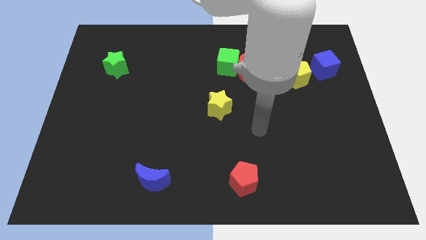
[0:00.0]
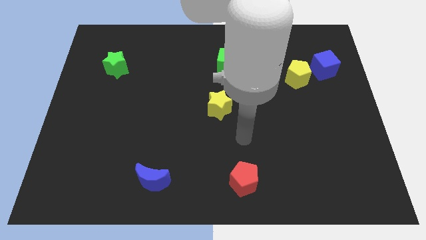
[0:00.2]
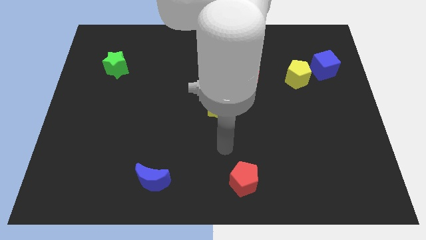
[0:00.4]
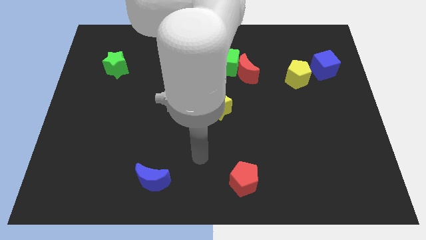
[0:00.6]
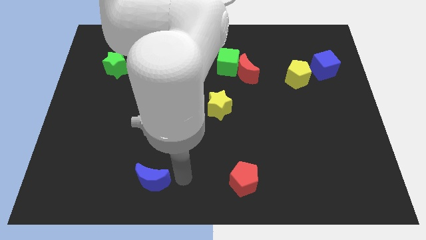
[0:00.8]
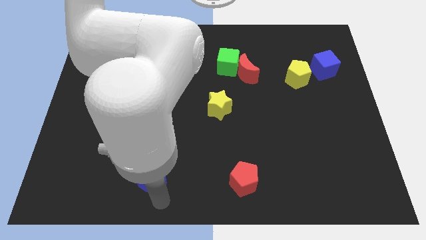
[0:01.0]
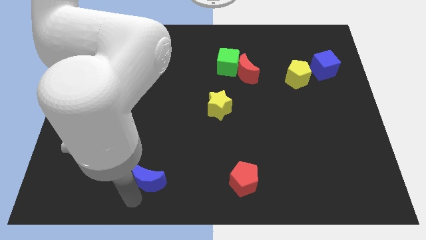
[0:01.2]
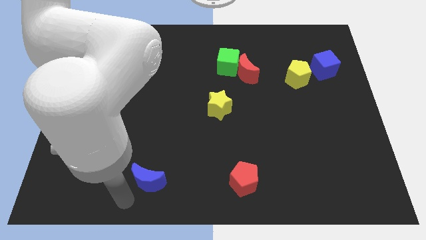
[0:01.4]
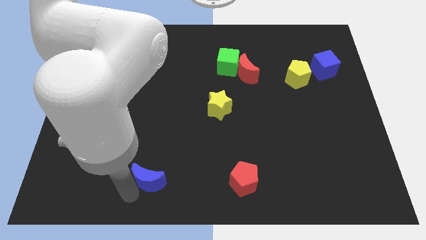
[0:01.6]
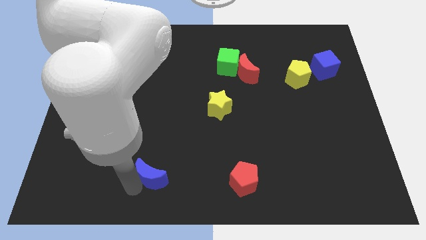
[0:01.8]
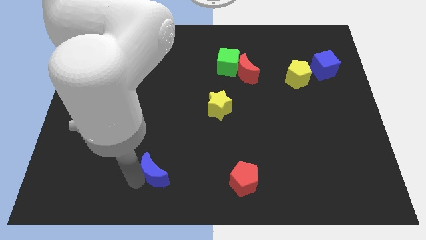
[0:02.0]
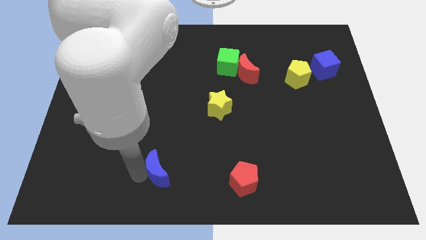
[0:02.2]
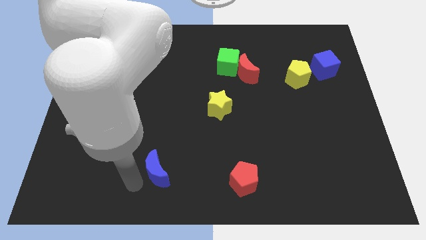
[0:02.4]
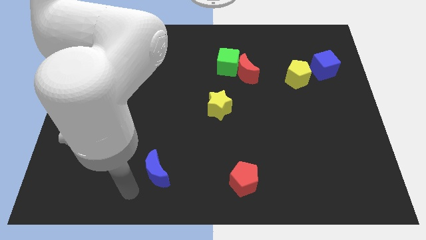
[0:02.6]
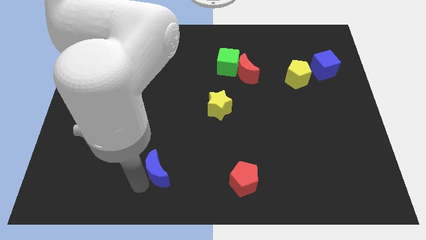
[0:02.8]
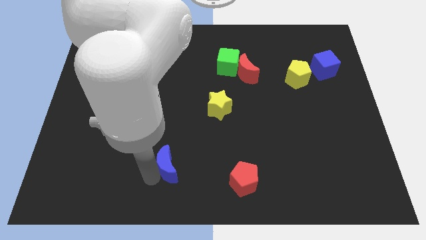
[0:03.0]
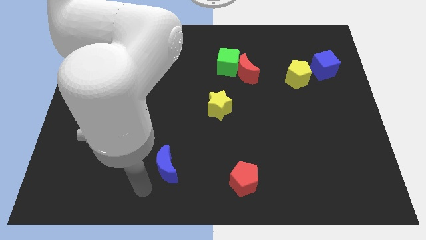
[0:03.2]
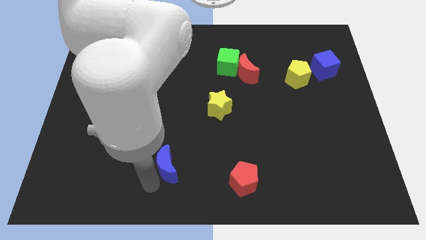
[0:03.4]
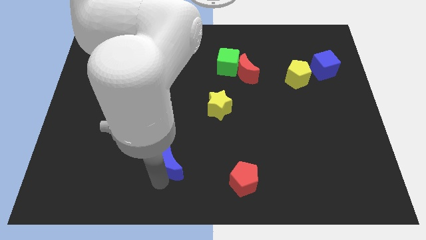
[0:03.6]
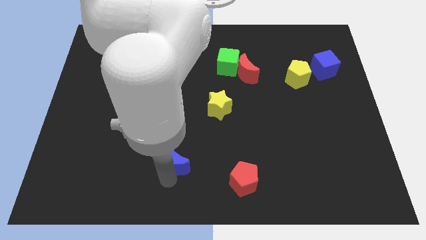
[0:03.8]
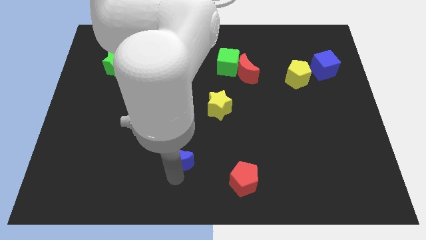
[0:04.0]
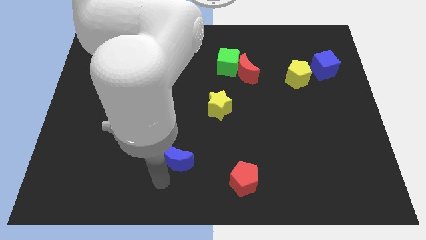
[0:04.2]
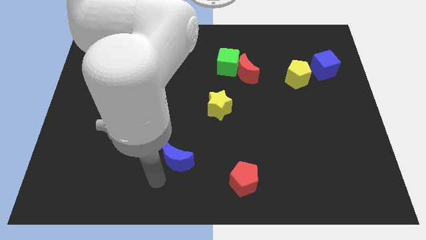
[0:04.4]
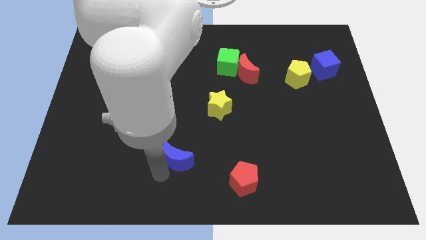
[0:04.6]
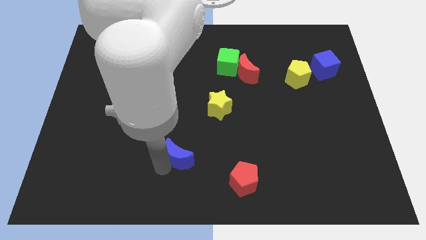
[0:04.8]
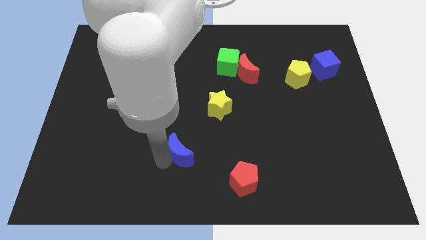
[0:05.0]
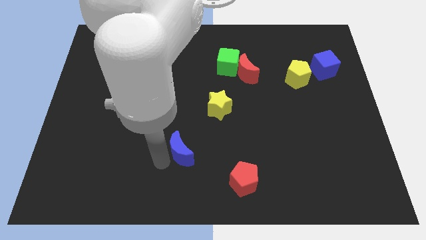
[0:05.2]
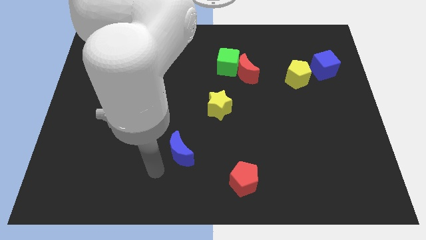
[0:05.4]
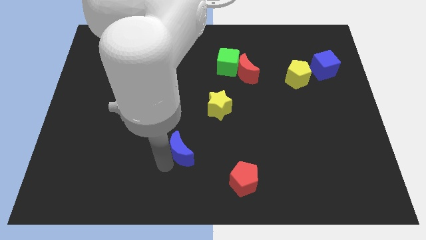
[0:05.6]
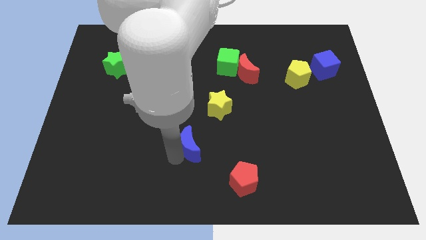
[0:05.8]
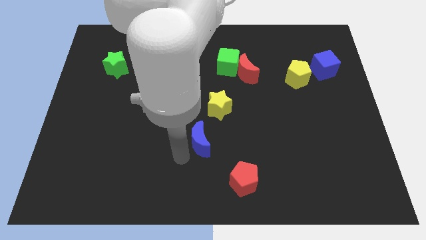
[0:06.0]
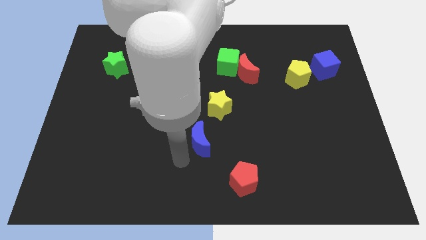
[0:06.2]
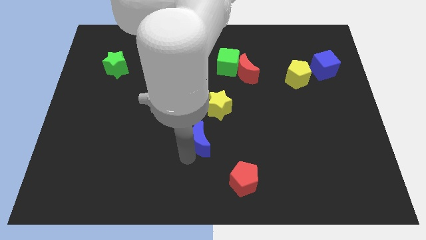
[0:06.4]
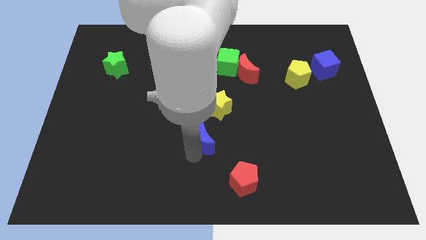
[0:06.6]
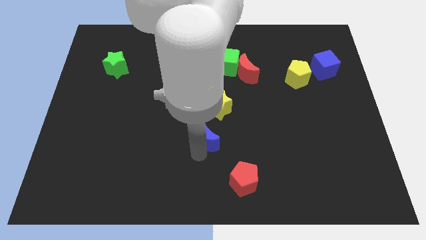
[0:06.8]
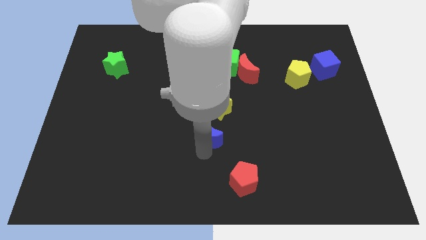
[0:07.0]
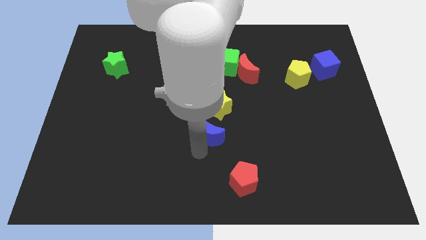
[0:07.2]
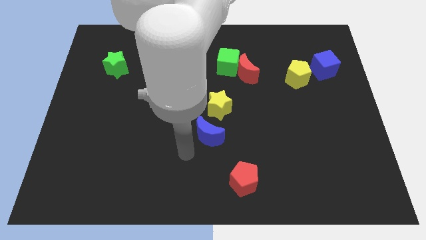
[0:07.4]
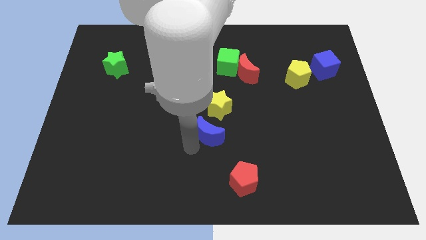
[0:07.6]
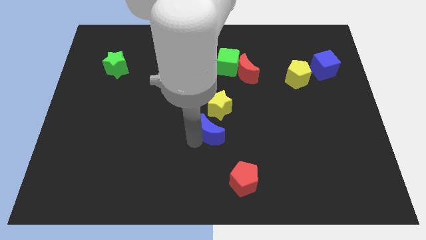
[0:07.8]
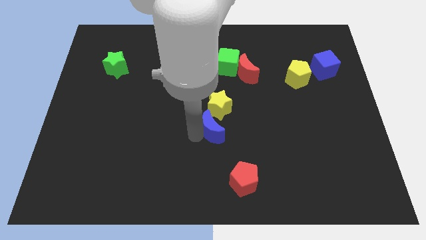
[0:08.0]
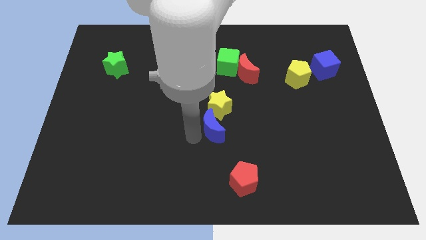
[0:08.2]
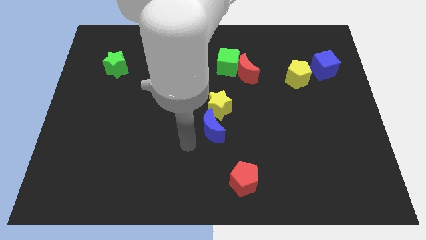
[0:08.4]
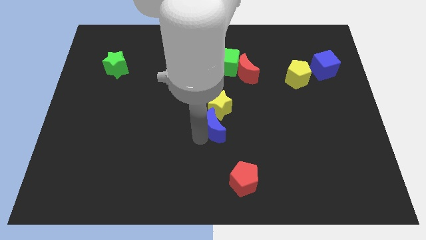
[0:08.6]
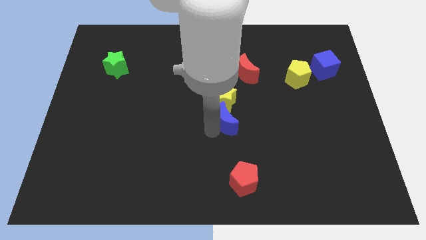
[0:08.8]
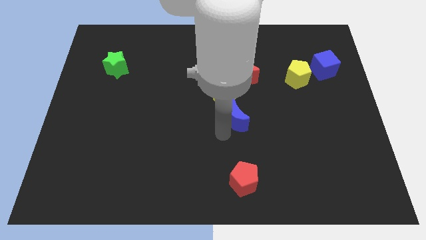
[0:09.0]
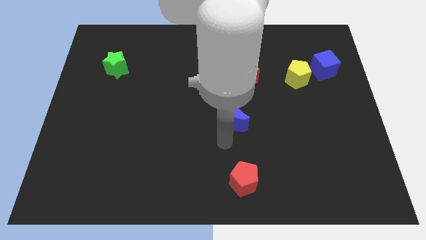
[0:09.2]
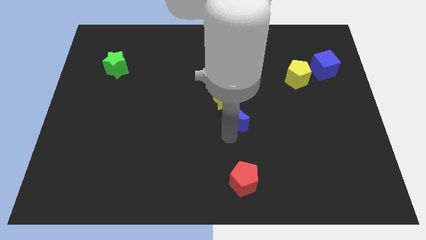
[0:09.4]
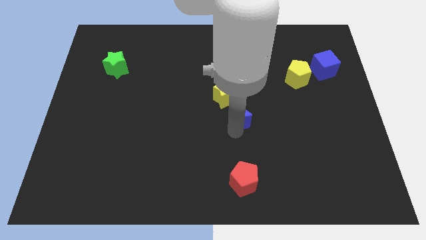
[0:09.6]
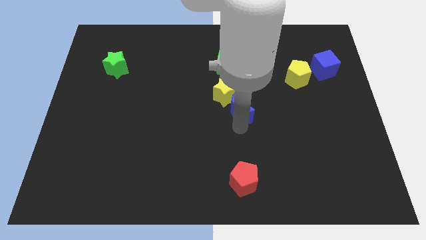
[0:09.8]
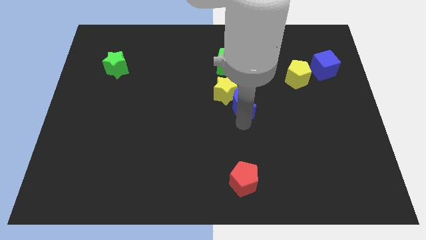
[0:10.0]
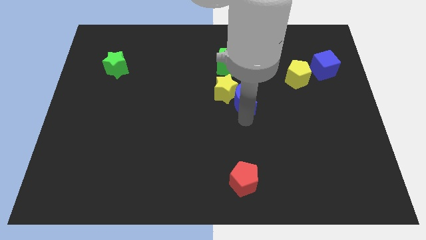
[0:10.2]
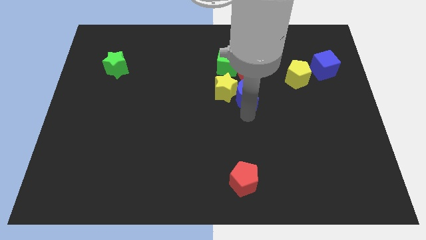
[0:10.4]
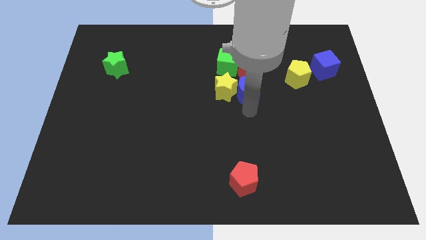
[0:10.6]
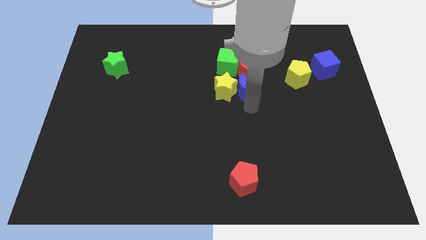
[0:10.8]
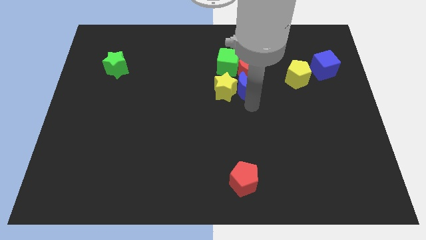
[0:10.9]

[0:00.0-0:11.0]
slide the blue moon towards the red moon

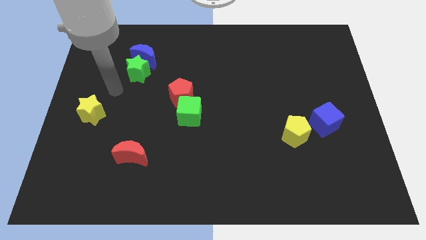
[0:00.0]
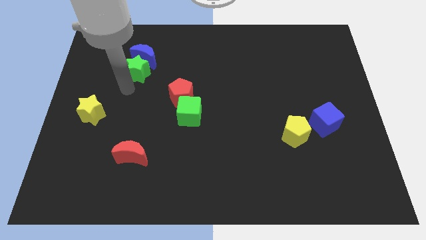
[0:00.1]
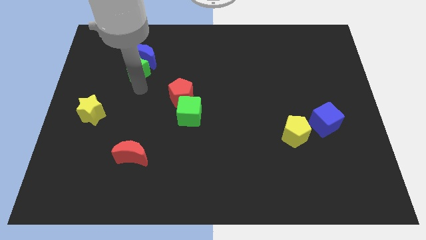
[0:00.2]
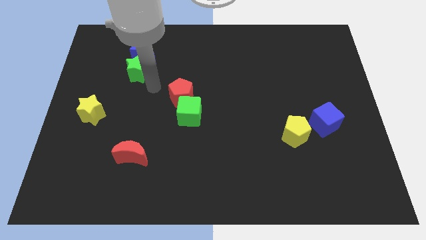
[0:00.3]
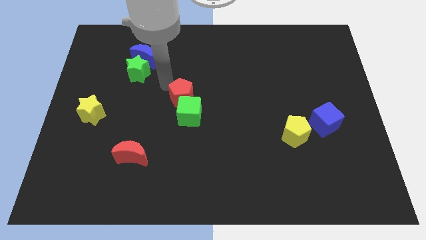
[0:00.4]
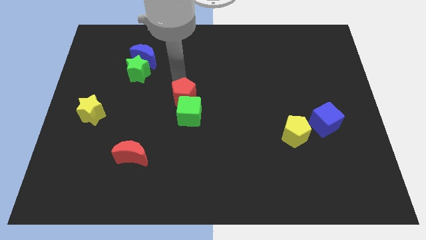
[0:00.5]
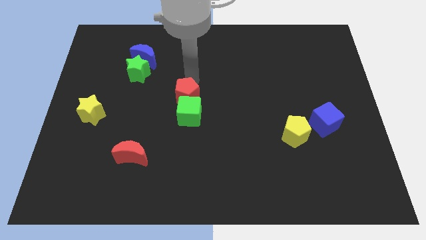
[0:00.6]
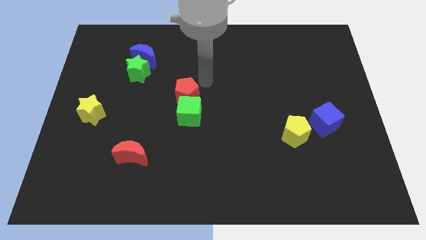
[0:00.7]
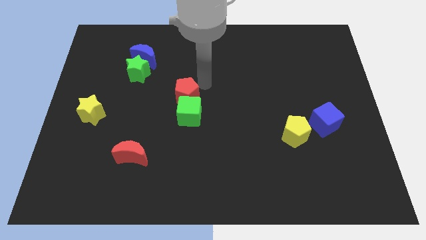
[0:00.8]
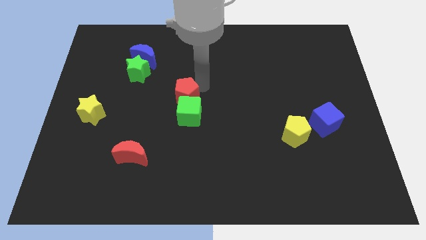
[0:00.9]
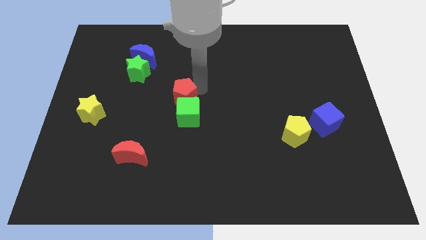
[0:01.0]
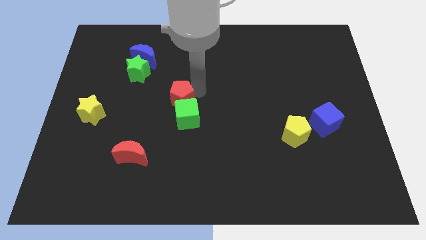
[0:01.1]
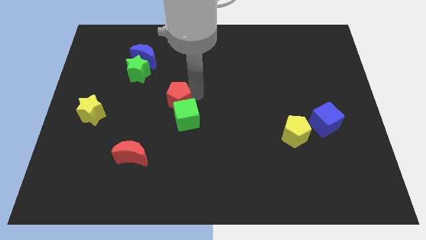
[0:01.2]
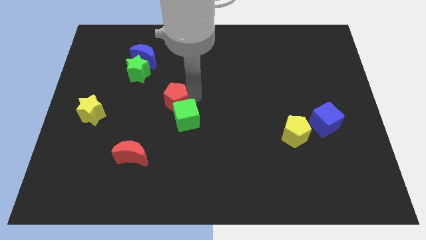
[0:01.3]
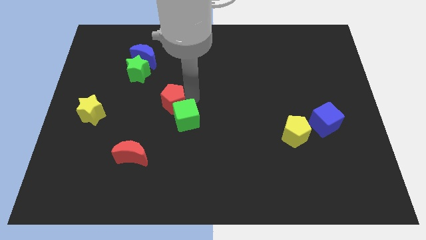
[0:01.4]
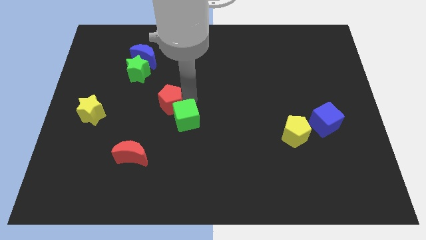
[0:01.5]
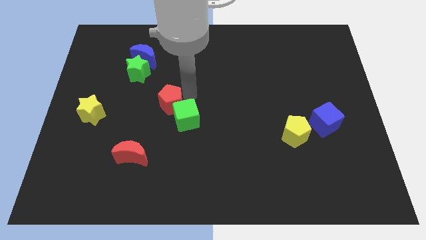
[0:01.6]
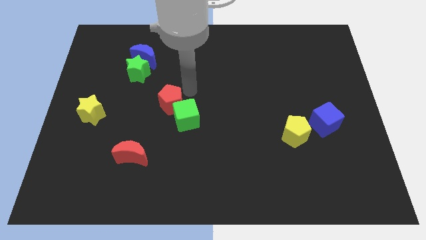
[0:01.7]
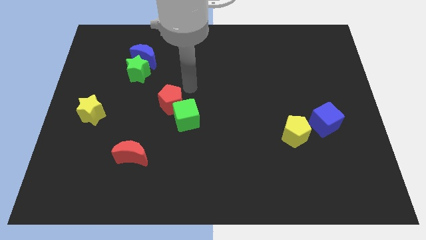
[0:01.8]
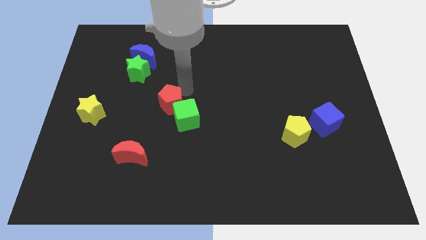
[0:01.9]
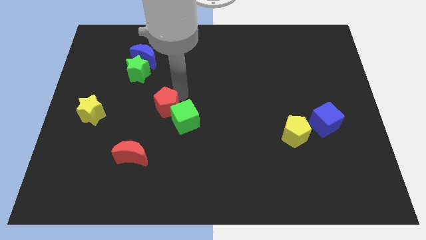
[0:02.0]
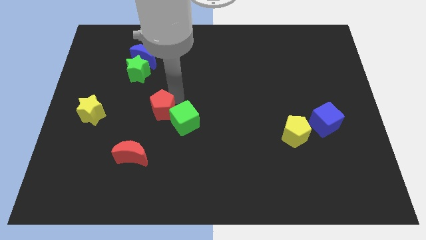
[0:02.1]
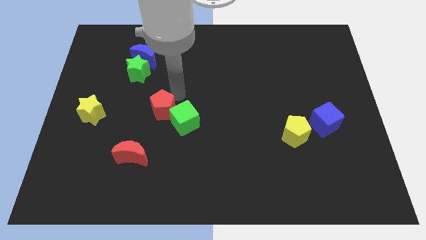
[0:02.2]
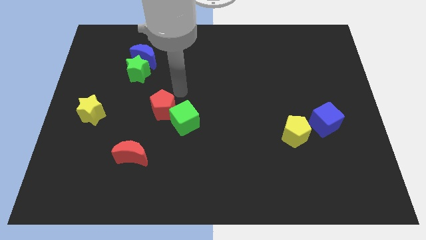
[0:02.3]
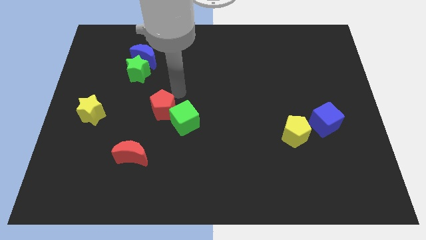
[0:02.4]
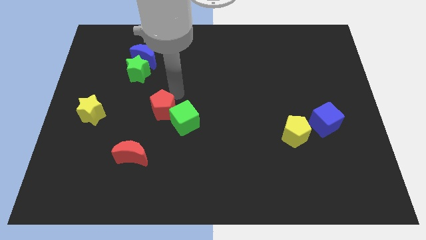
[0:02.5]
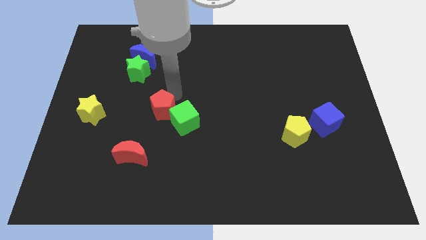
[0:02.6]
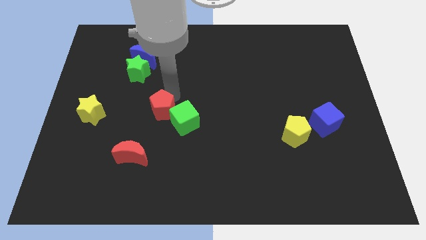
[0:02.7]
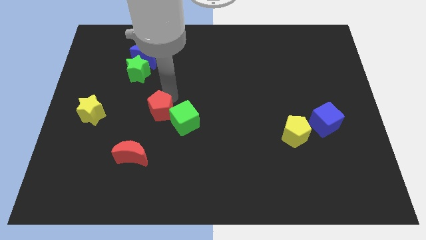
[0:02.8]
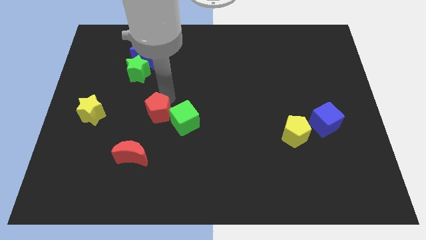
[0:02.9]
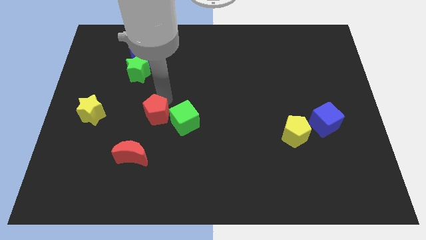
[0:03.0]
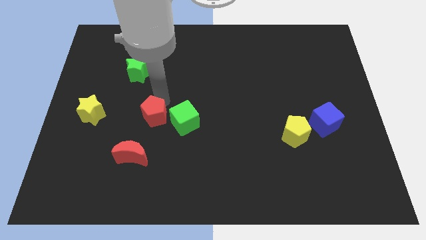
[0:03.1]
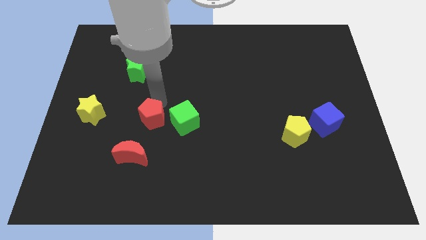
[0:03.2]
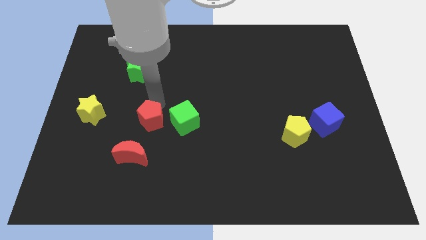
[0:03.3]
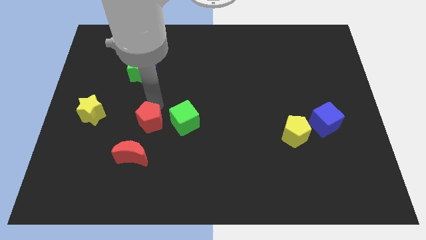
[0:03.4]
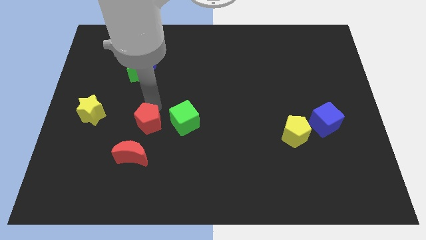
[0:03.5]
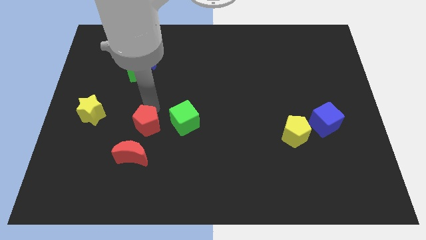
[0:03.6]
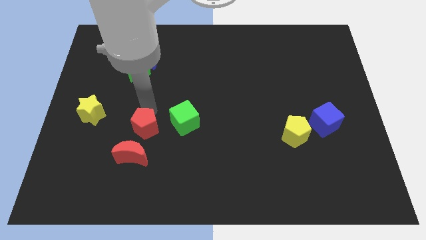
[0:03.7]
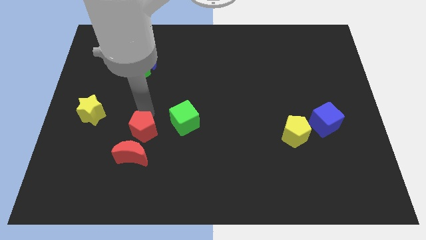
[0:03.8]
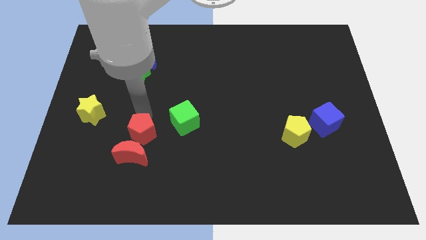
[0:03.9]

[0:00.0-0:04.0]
push the red pentagon next to the red moon
